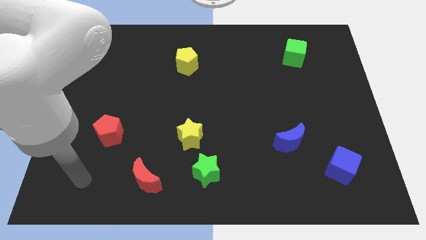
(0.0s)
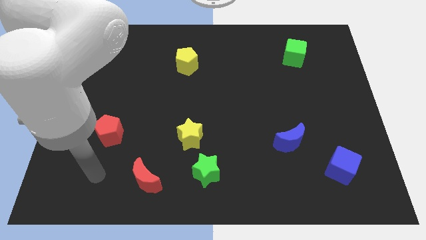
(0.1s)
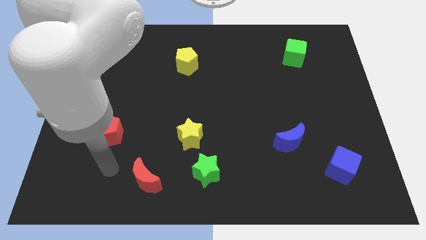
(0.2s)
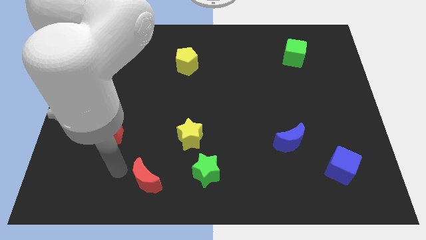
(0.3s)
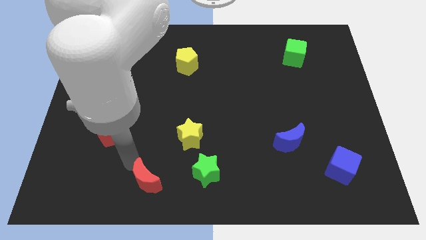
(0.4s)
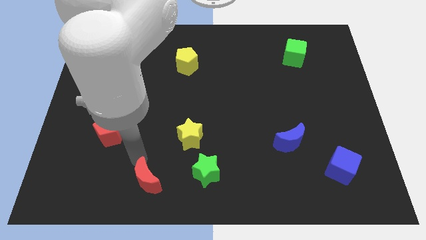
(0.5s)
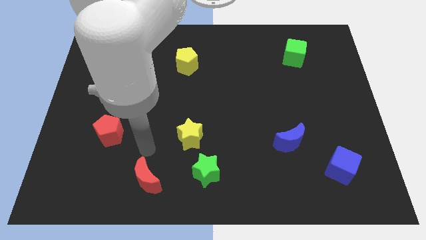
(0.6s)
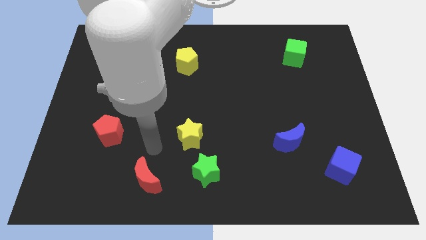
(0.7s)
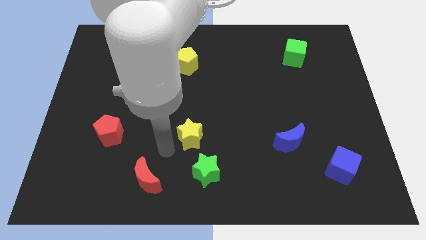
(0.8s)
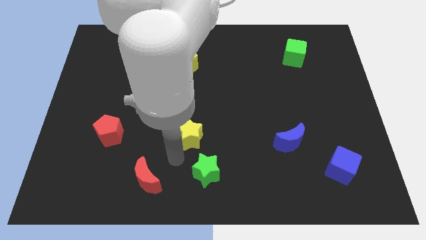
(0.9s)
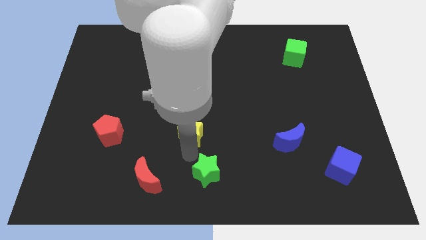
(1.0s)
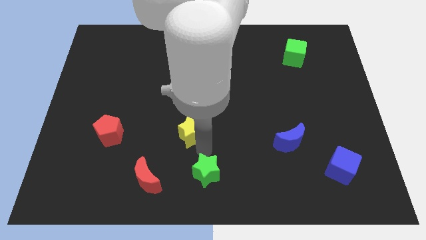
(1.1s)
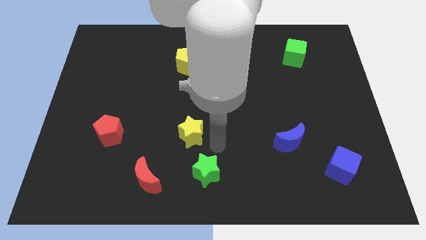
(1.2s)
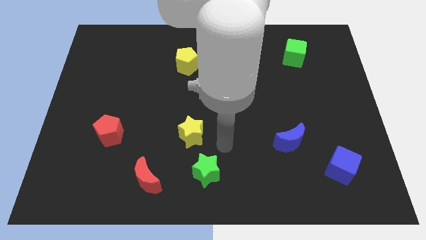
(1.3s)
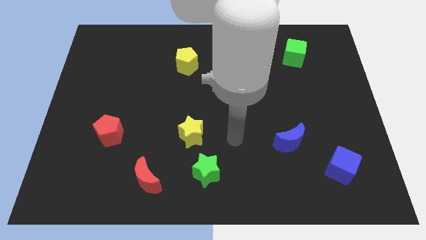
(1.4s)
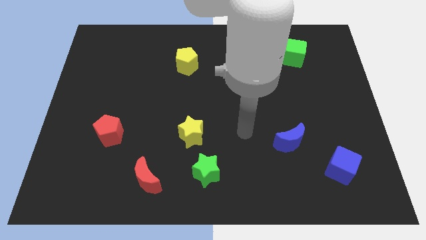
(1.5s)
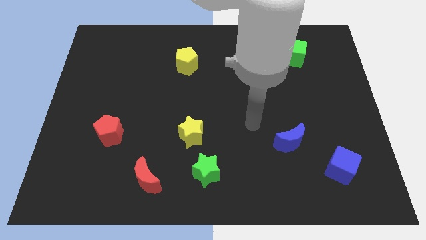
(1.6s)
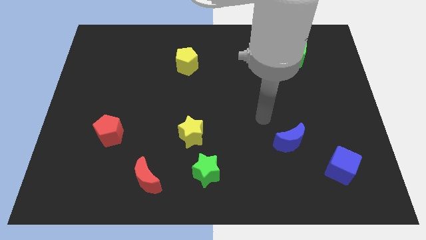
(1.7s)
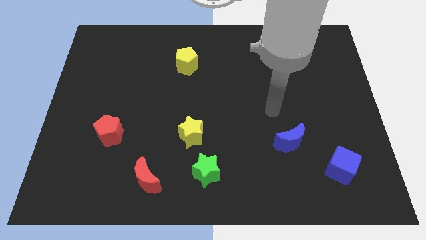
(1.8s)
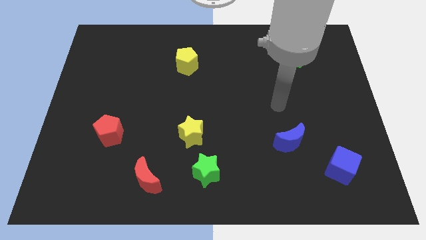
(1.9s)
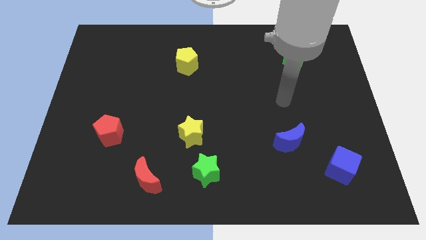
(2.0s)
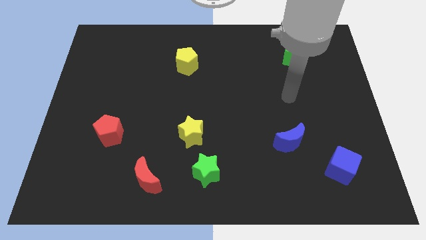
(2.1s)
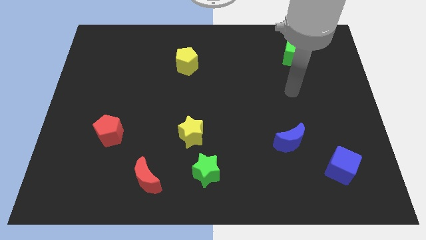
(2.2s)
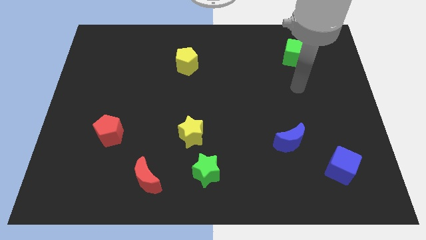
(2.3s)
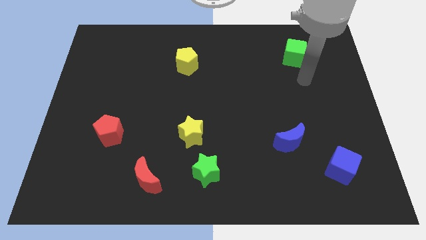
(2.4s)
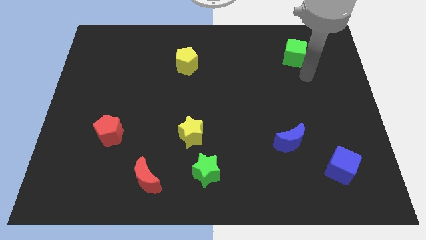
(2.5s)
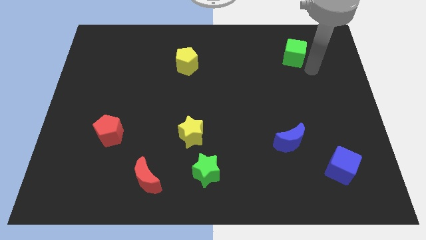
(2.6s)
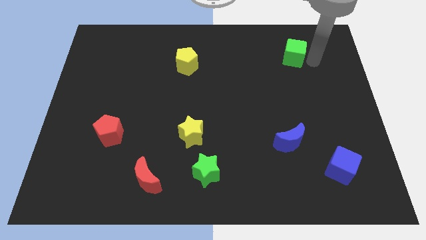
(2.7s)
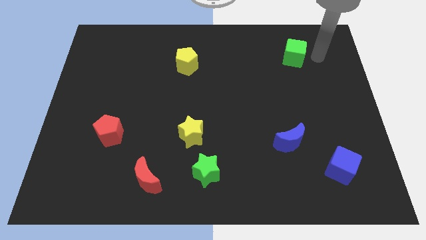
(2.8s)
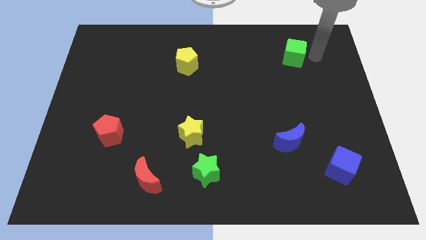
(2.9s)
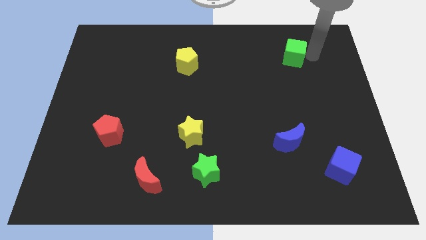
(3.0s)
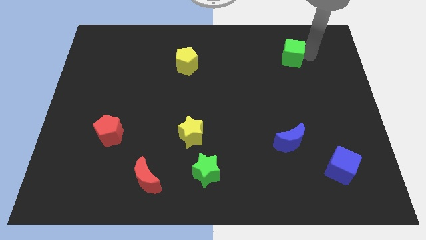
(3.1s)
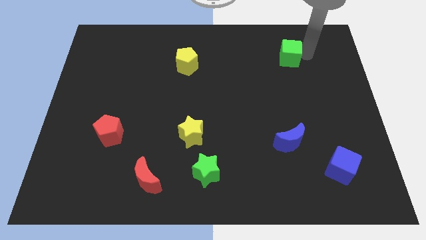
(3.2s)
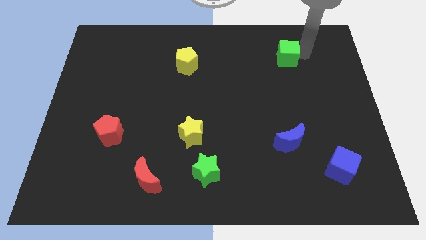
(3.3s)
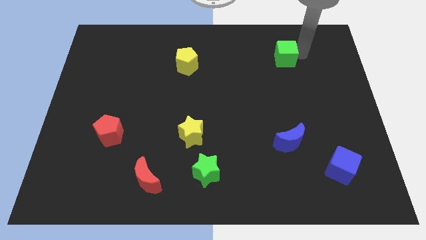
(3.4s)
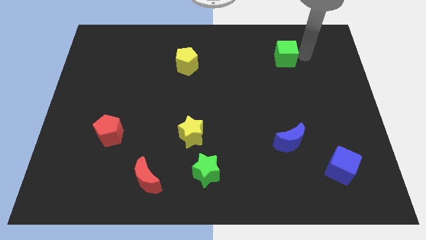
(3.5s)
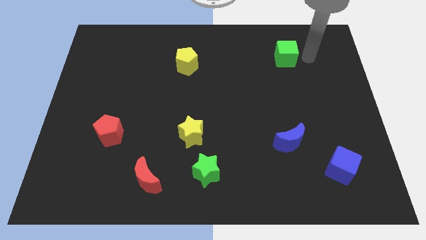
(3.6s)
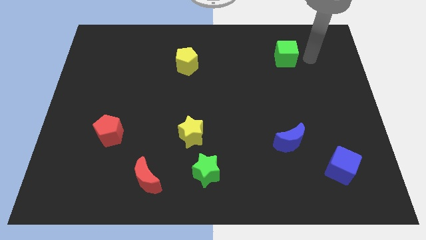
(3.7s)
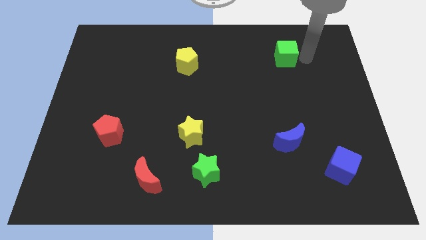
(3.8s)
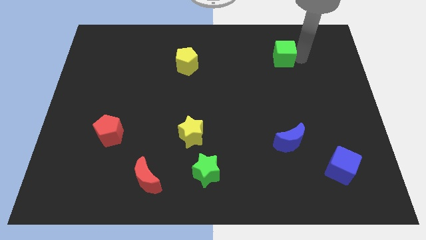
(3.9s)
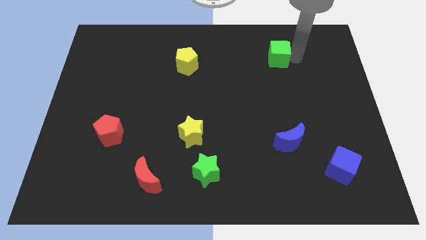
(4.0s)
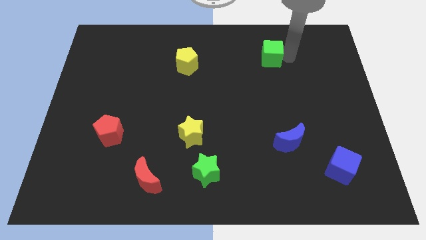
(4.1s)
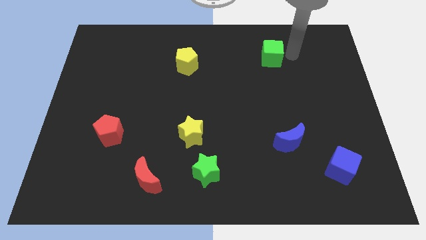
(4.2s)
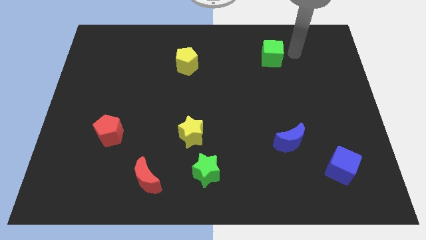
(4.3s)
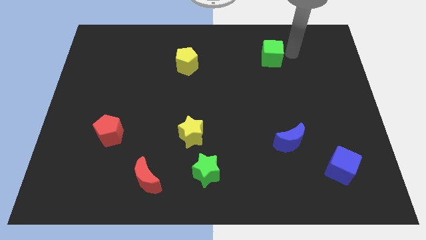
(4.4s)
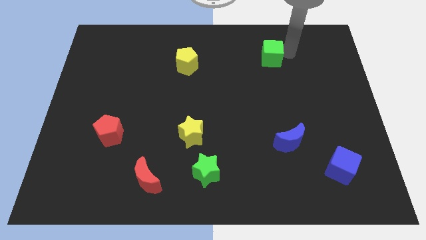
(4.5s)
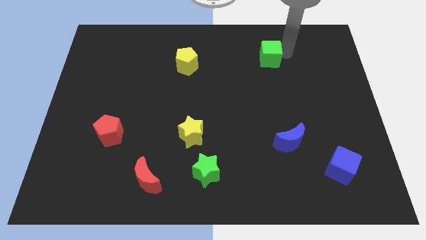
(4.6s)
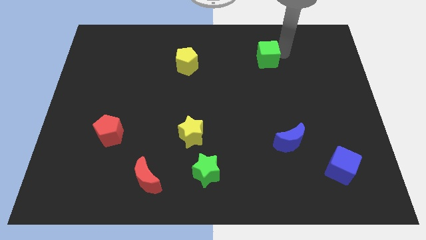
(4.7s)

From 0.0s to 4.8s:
slide the green cube somewhat to the left

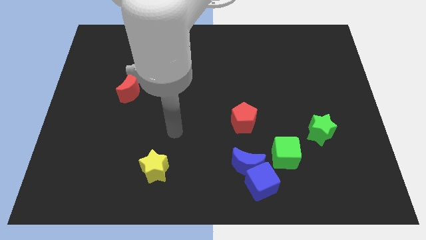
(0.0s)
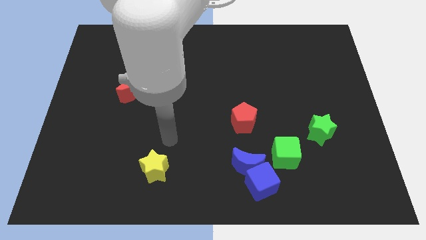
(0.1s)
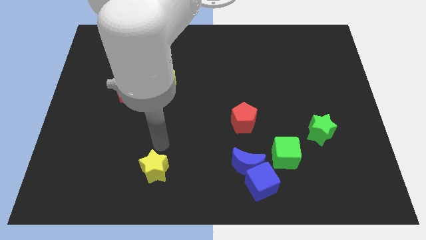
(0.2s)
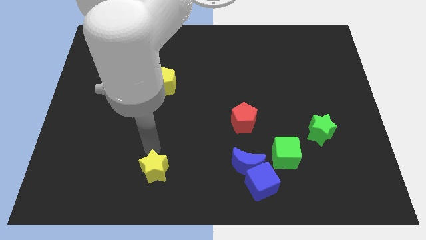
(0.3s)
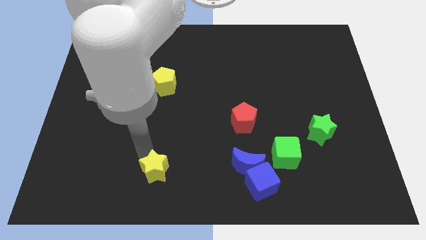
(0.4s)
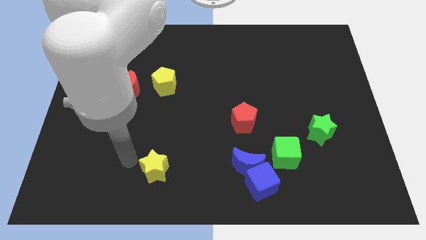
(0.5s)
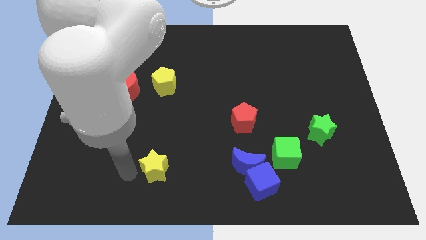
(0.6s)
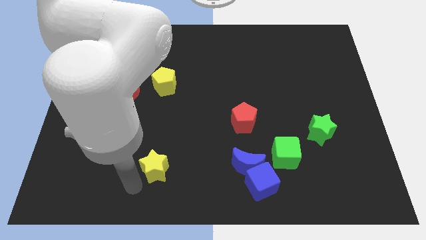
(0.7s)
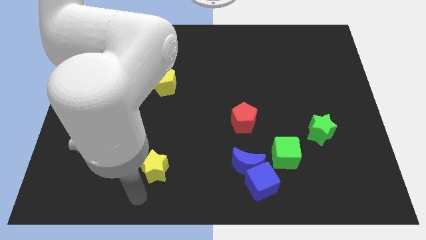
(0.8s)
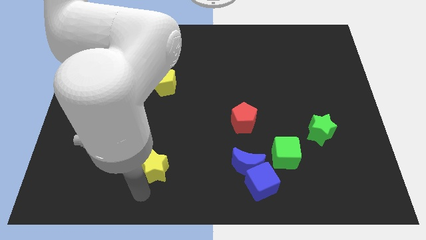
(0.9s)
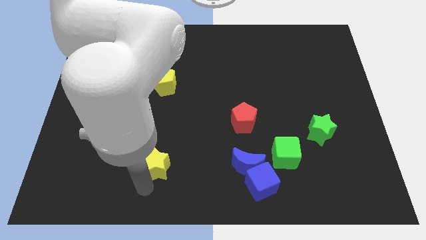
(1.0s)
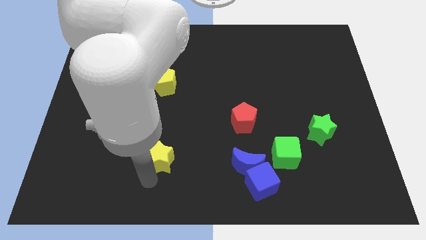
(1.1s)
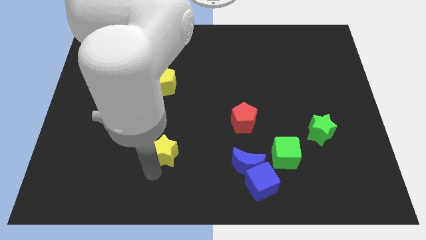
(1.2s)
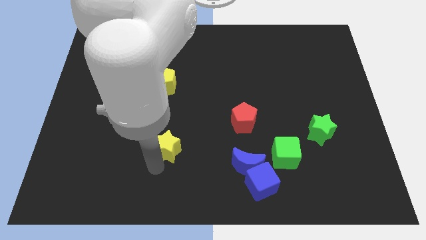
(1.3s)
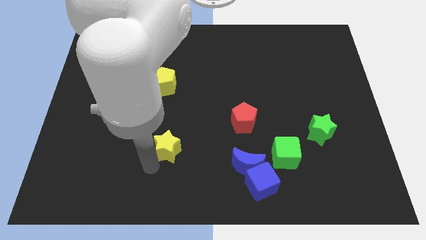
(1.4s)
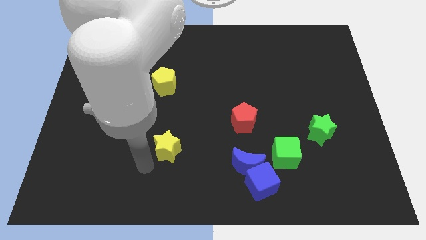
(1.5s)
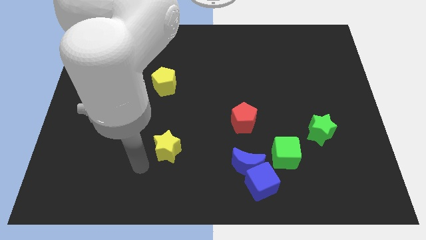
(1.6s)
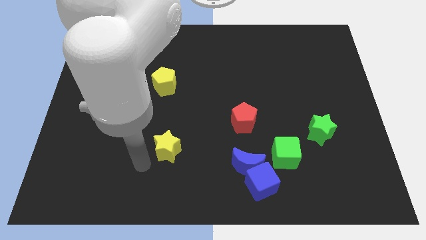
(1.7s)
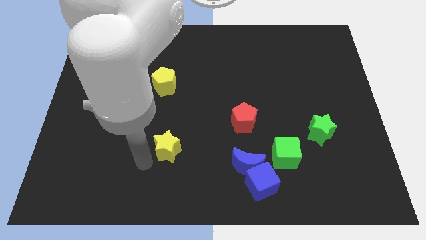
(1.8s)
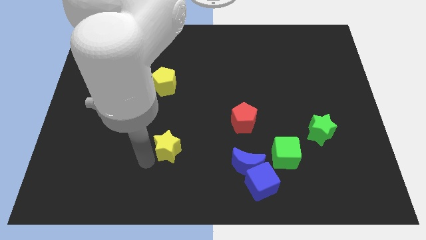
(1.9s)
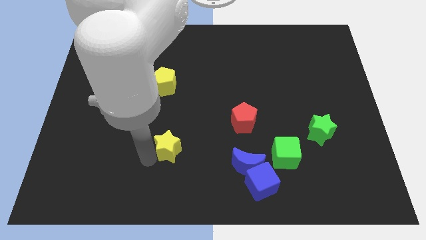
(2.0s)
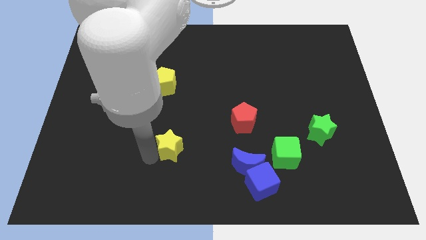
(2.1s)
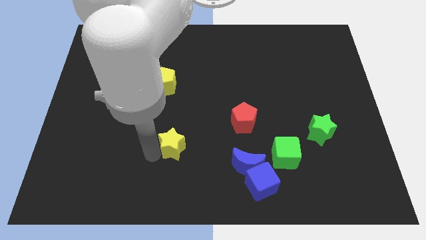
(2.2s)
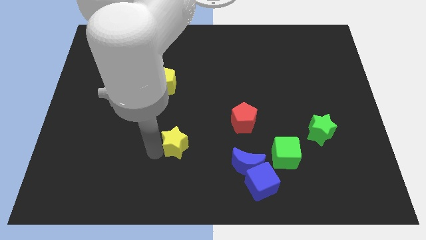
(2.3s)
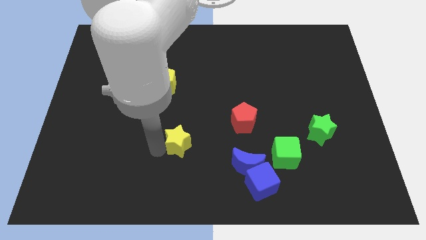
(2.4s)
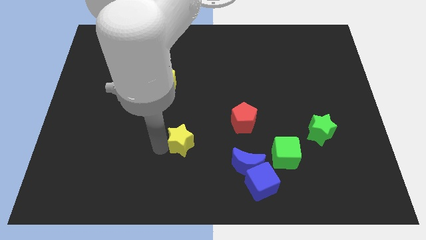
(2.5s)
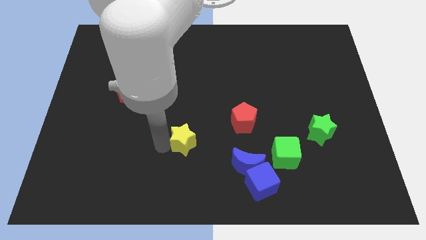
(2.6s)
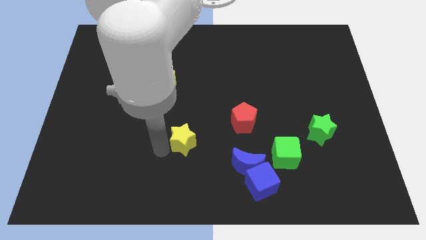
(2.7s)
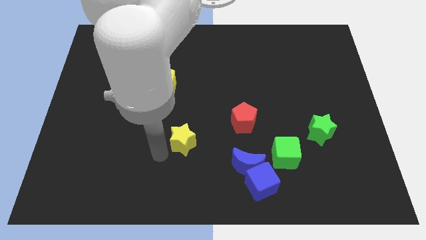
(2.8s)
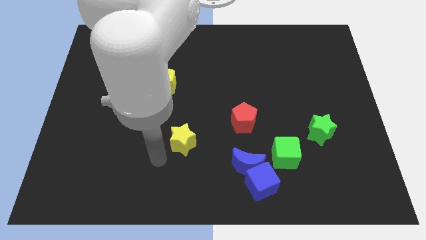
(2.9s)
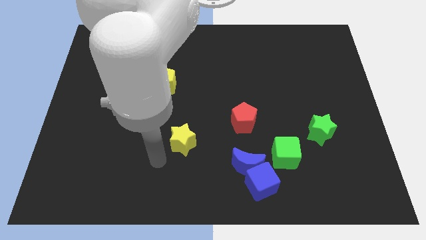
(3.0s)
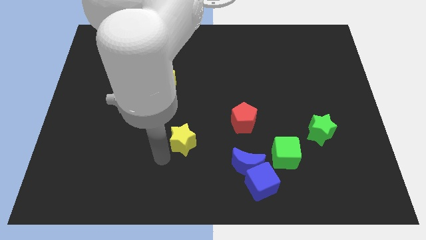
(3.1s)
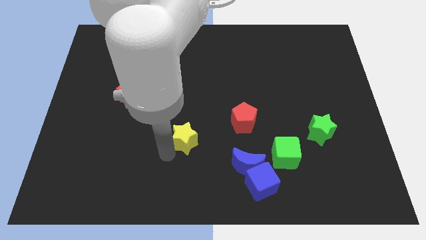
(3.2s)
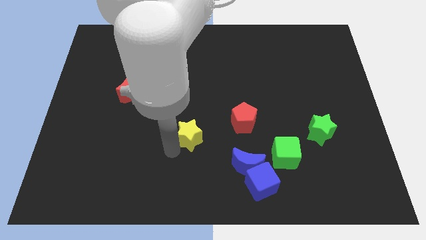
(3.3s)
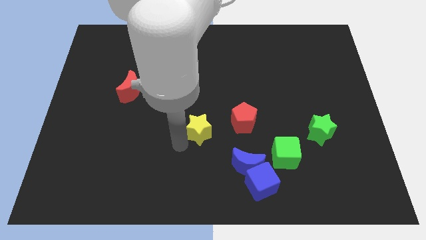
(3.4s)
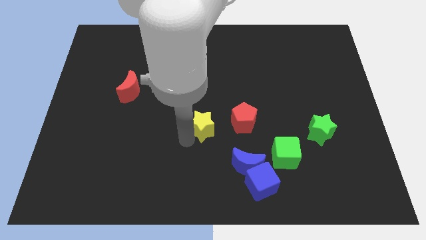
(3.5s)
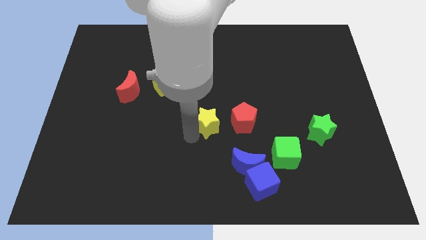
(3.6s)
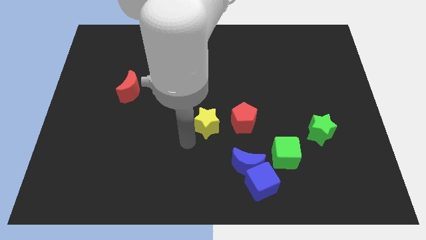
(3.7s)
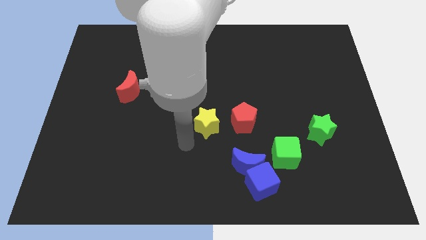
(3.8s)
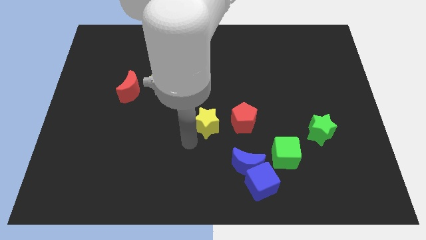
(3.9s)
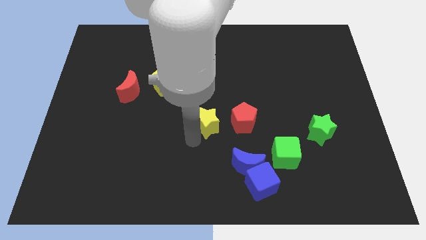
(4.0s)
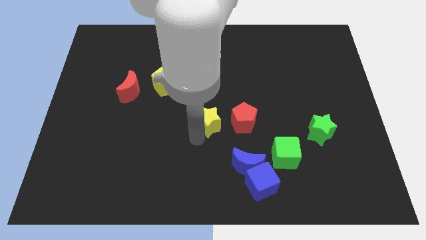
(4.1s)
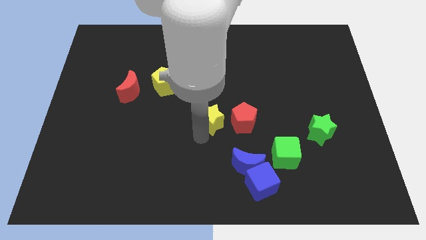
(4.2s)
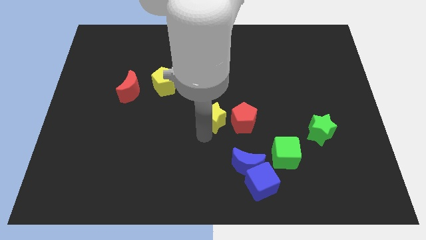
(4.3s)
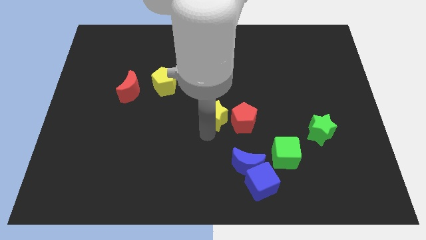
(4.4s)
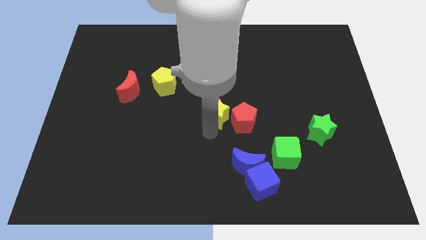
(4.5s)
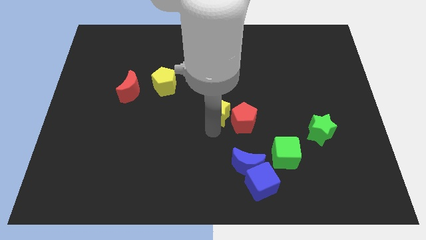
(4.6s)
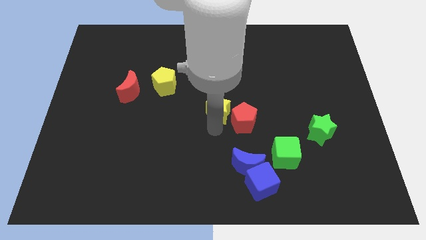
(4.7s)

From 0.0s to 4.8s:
push the yellow star upwards and to the right diagonally
